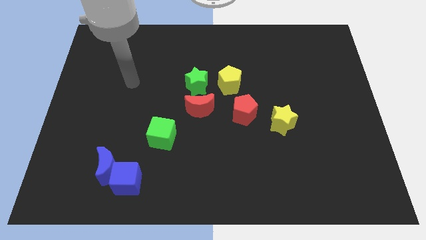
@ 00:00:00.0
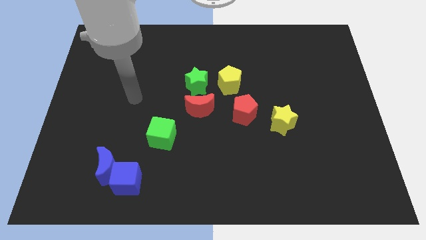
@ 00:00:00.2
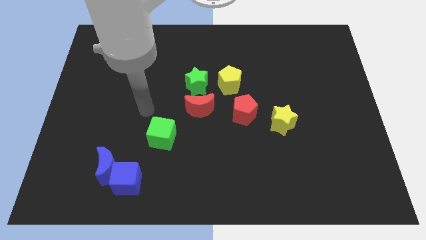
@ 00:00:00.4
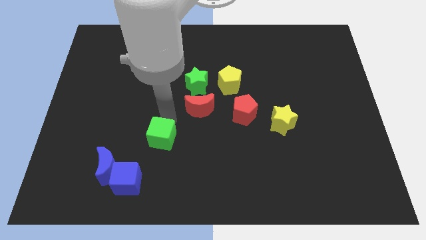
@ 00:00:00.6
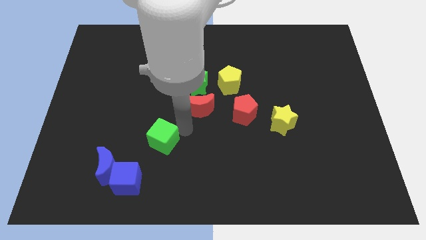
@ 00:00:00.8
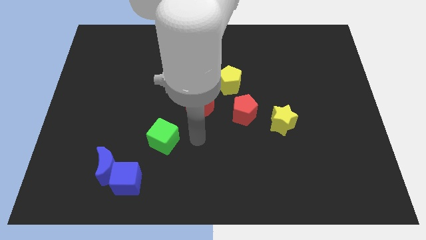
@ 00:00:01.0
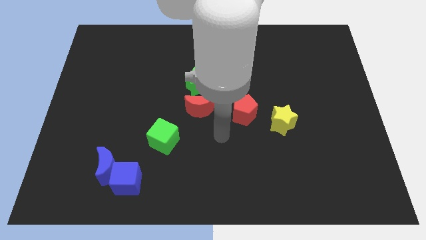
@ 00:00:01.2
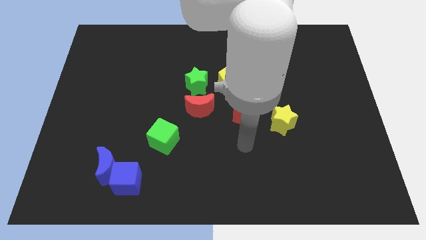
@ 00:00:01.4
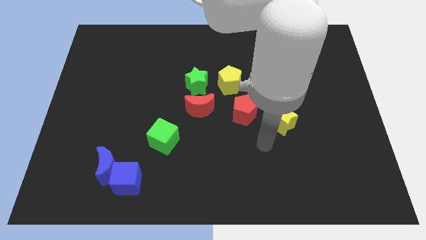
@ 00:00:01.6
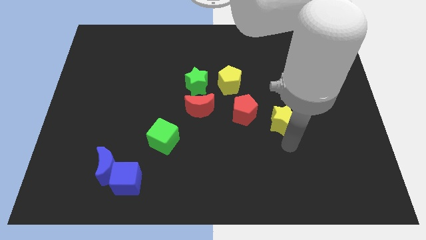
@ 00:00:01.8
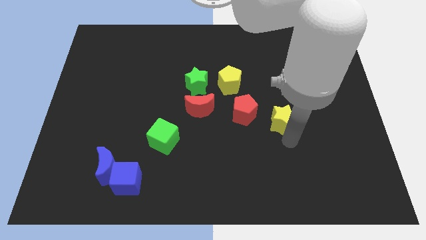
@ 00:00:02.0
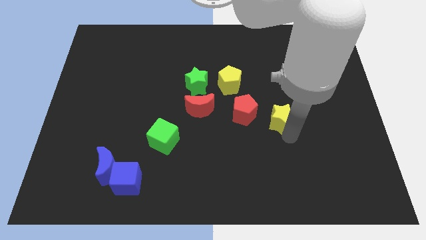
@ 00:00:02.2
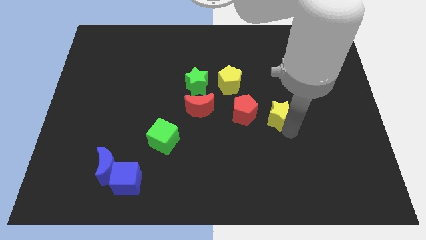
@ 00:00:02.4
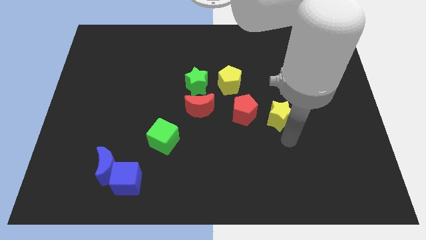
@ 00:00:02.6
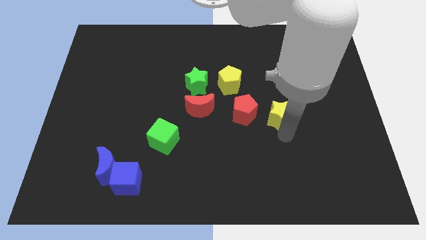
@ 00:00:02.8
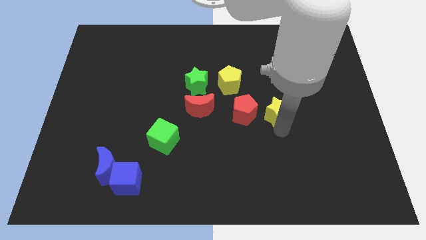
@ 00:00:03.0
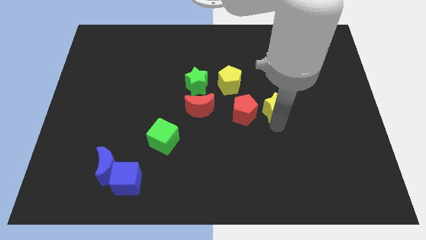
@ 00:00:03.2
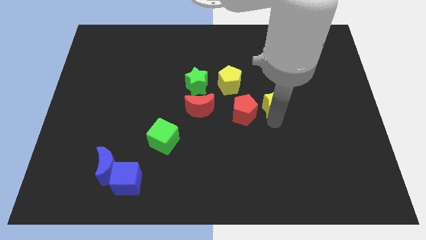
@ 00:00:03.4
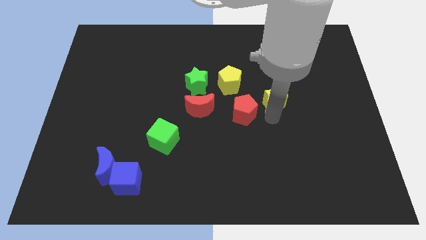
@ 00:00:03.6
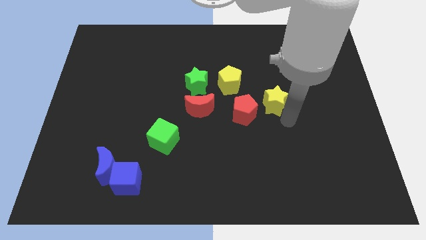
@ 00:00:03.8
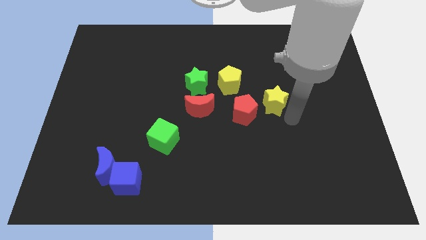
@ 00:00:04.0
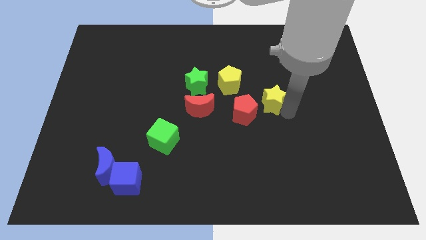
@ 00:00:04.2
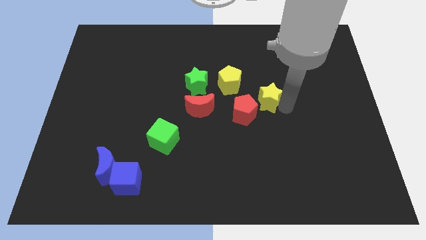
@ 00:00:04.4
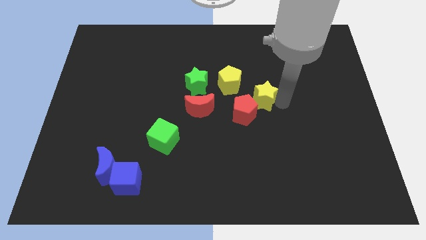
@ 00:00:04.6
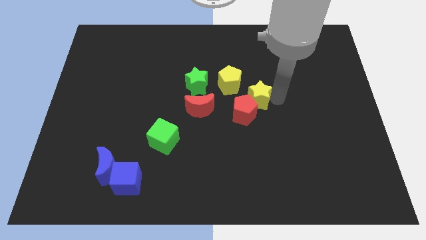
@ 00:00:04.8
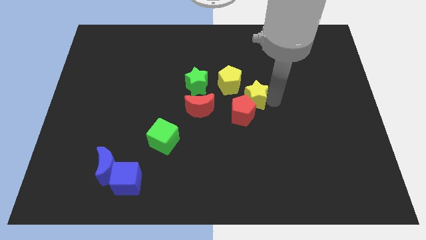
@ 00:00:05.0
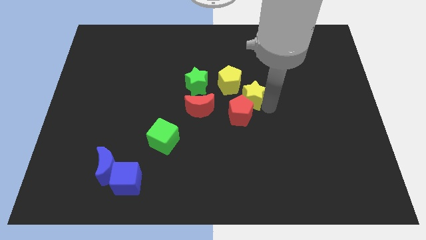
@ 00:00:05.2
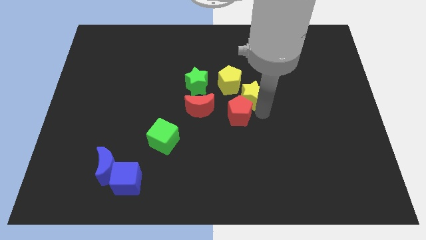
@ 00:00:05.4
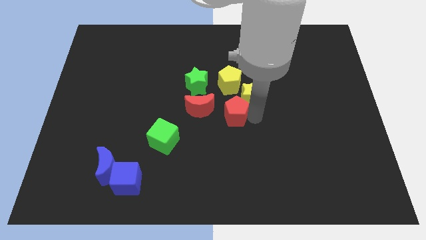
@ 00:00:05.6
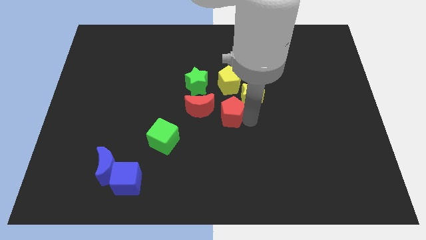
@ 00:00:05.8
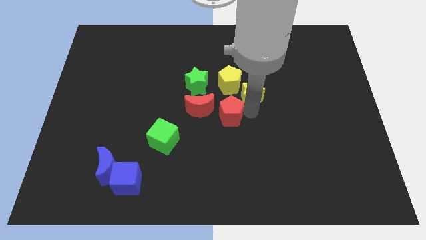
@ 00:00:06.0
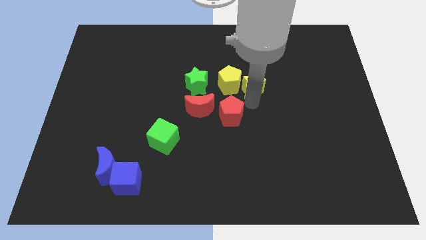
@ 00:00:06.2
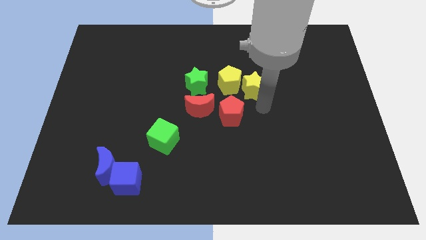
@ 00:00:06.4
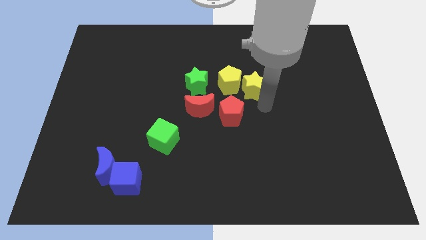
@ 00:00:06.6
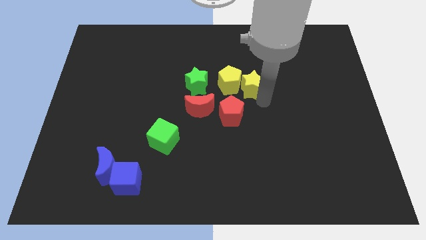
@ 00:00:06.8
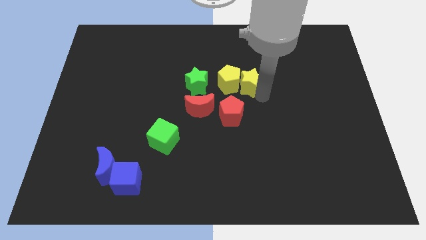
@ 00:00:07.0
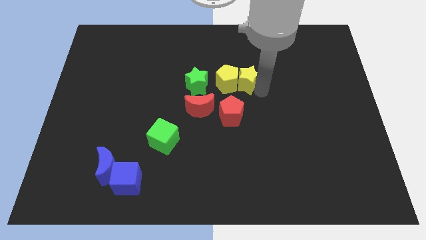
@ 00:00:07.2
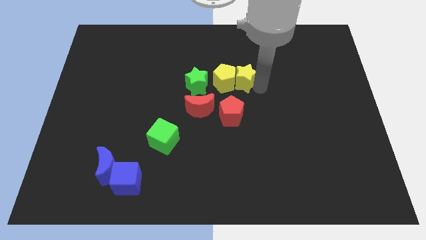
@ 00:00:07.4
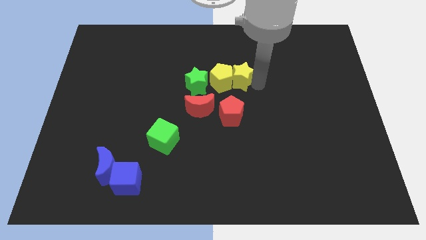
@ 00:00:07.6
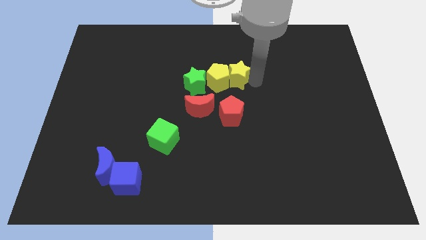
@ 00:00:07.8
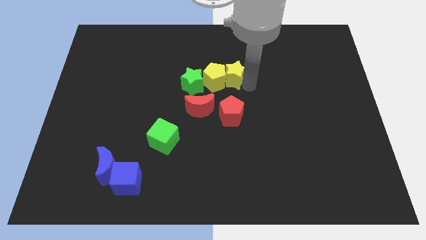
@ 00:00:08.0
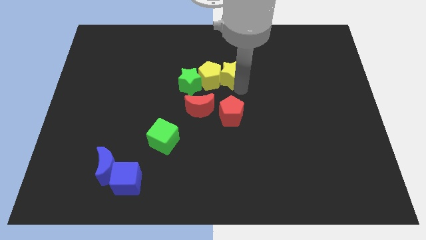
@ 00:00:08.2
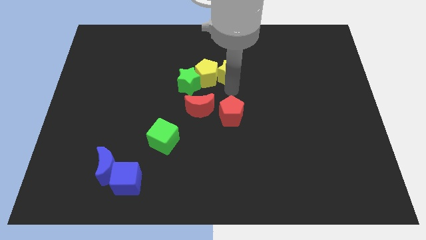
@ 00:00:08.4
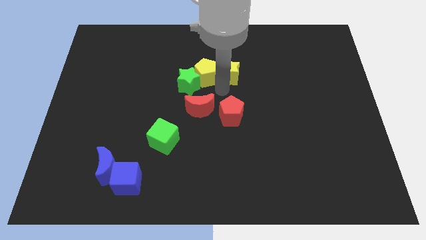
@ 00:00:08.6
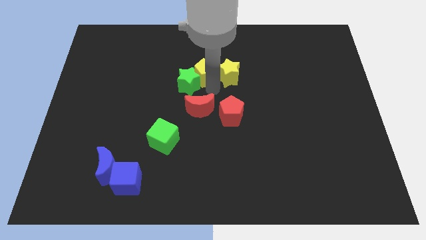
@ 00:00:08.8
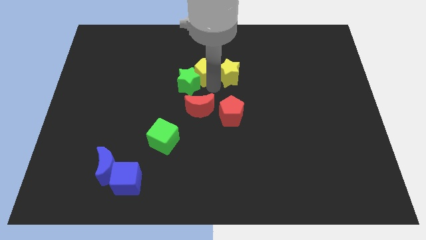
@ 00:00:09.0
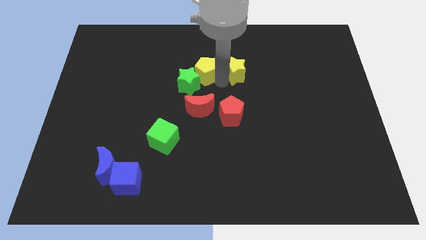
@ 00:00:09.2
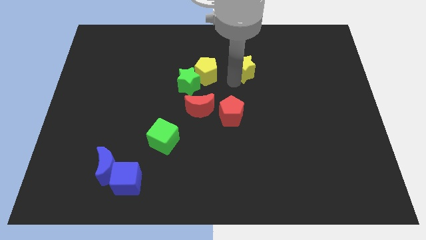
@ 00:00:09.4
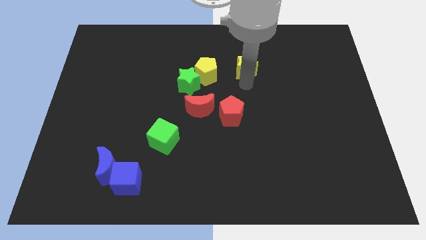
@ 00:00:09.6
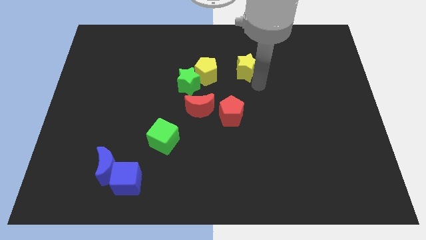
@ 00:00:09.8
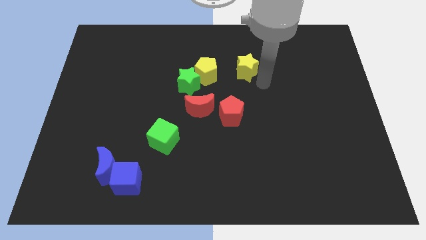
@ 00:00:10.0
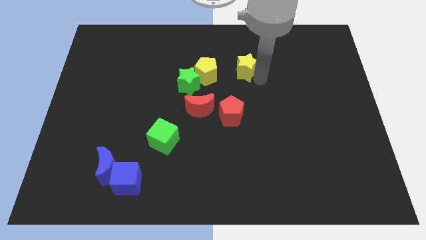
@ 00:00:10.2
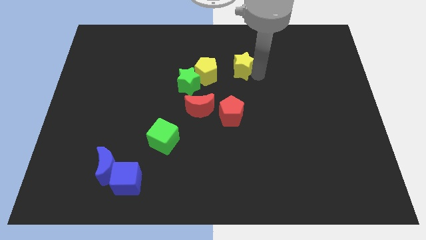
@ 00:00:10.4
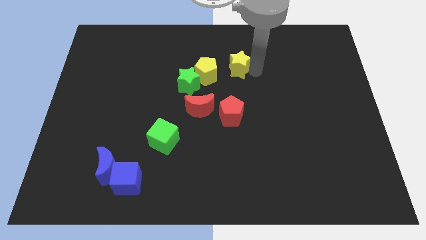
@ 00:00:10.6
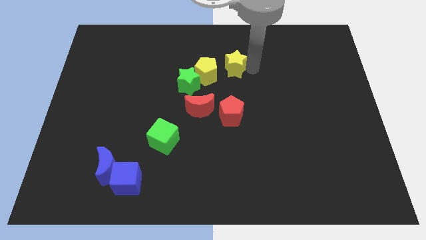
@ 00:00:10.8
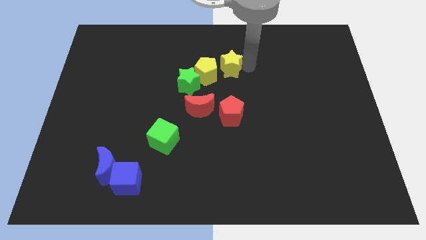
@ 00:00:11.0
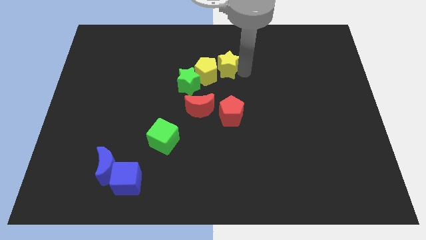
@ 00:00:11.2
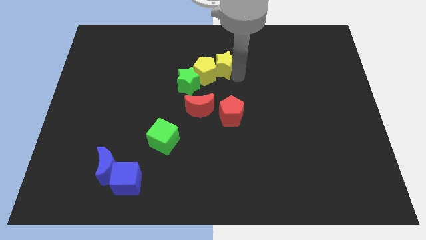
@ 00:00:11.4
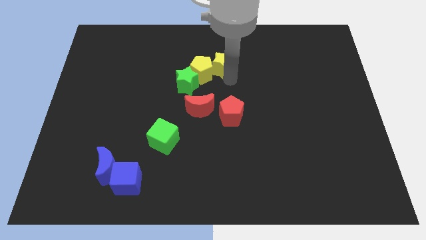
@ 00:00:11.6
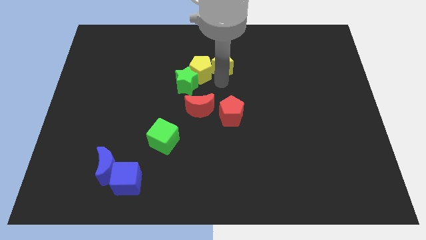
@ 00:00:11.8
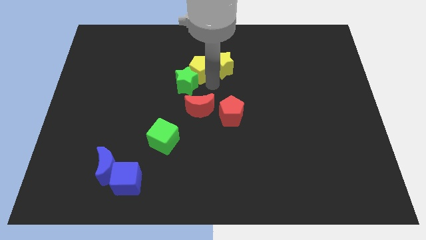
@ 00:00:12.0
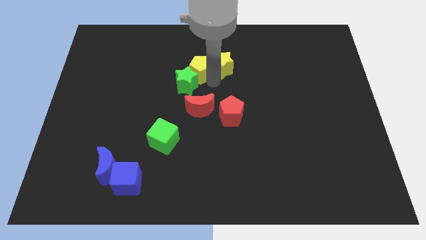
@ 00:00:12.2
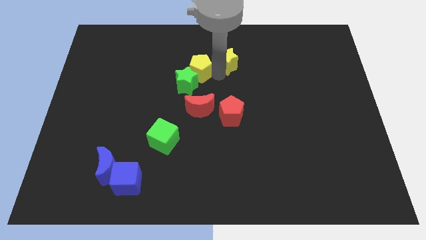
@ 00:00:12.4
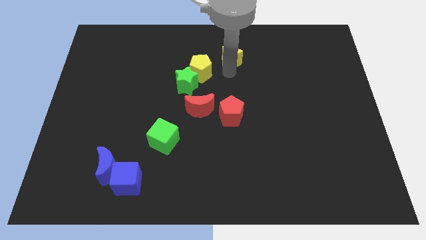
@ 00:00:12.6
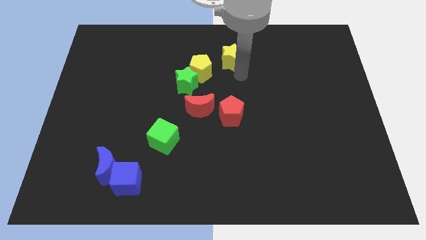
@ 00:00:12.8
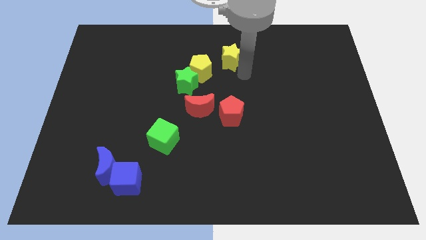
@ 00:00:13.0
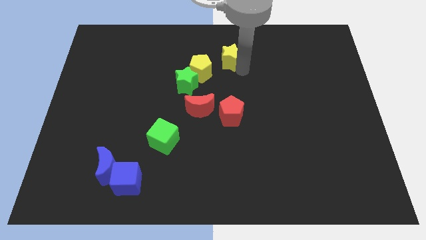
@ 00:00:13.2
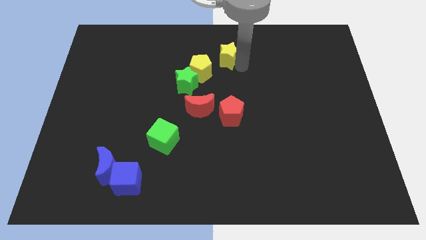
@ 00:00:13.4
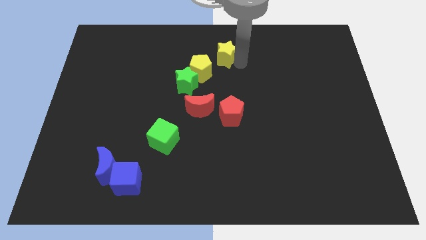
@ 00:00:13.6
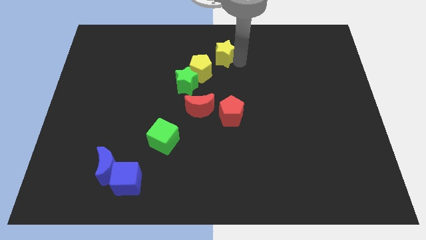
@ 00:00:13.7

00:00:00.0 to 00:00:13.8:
move the yellow star to the top
